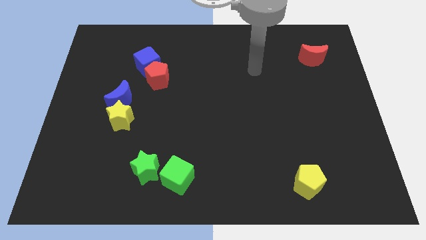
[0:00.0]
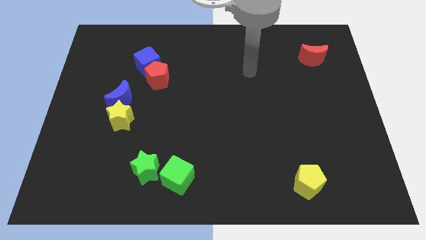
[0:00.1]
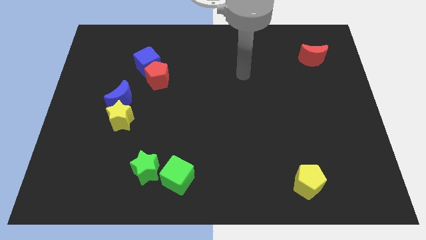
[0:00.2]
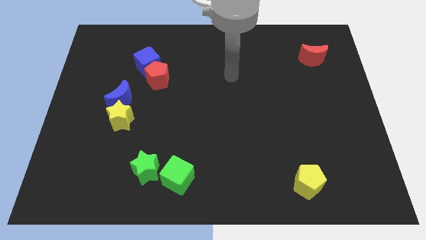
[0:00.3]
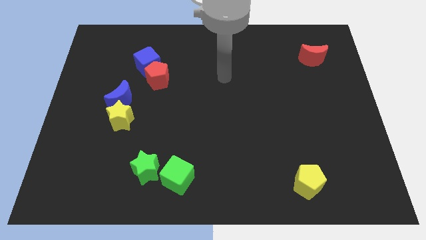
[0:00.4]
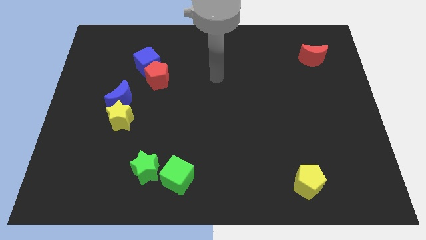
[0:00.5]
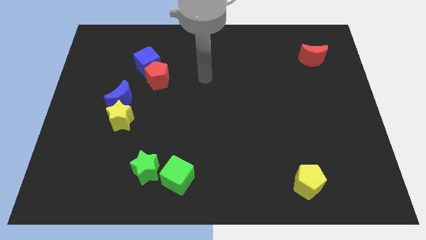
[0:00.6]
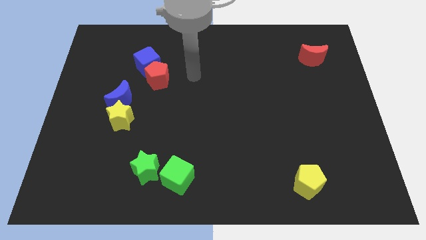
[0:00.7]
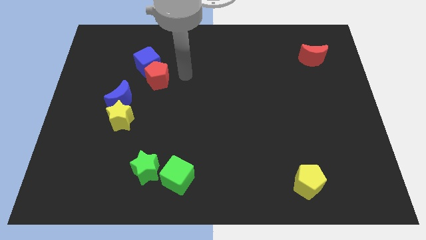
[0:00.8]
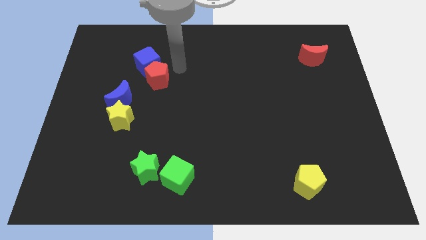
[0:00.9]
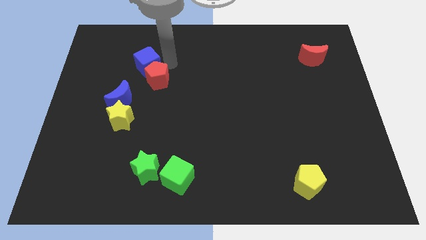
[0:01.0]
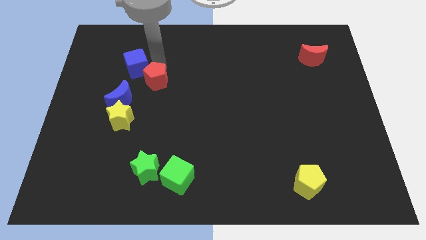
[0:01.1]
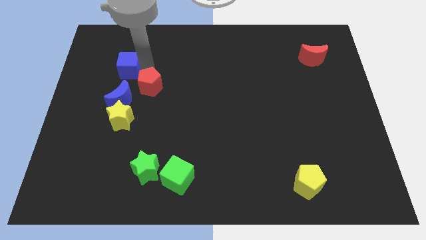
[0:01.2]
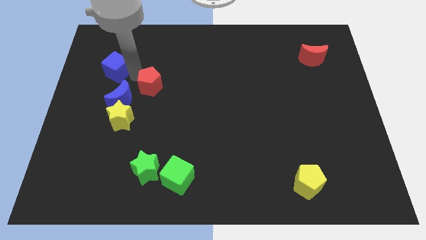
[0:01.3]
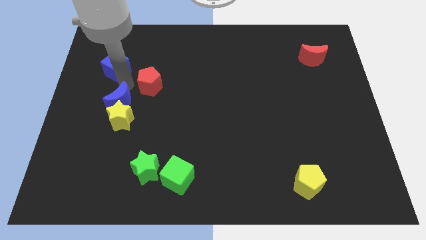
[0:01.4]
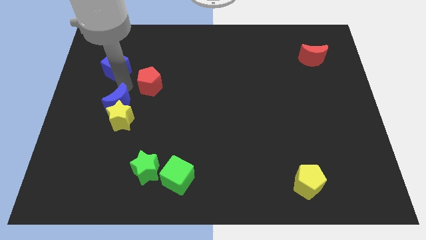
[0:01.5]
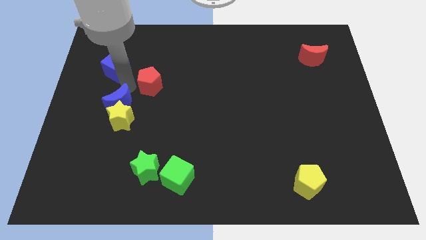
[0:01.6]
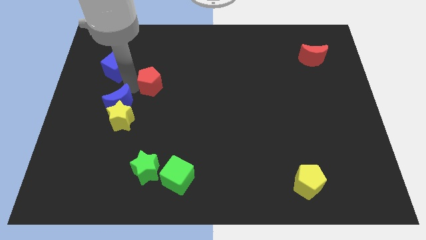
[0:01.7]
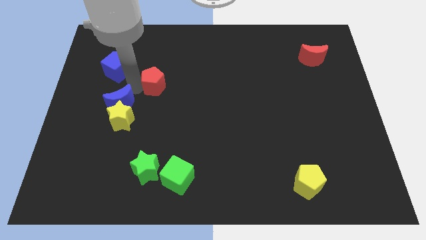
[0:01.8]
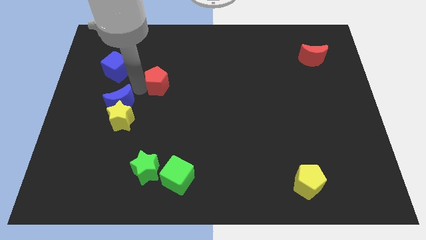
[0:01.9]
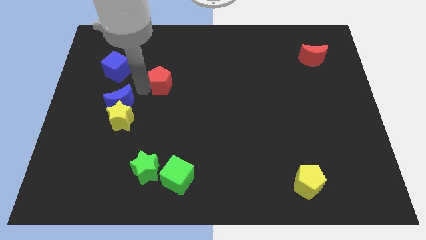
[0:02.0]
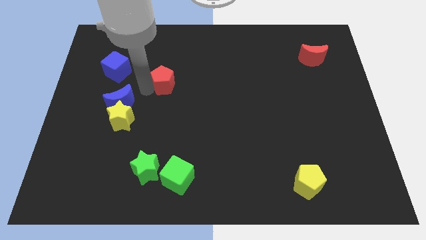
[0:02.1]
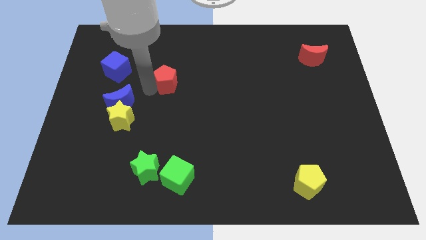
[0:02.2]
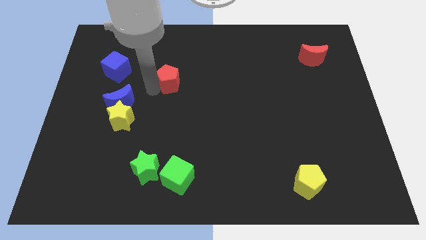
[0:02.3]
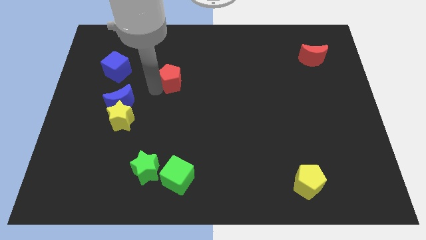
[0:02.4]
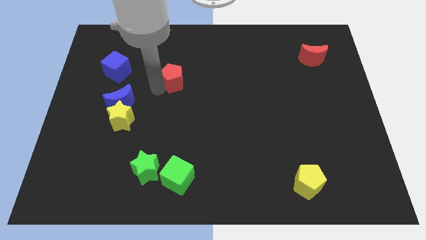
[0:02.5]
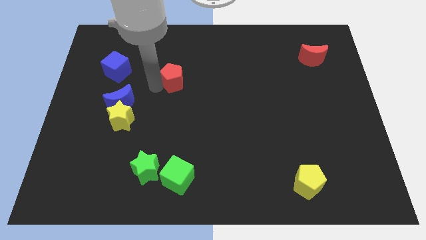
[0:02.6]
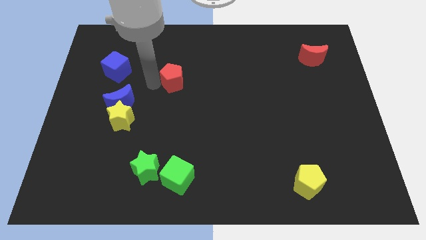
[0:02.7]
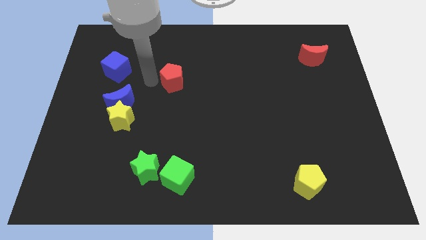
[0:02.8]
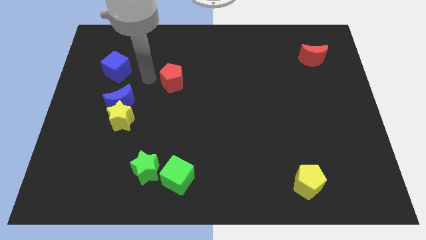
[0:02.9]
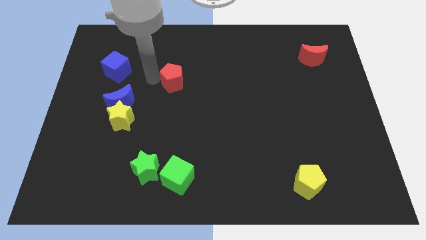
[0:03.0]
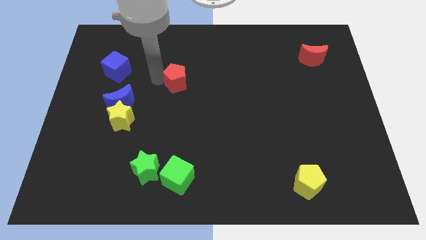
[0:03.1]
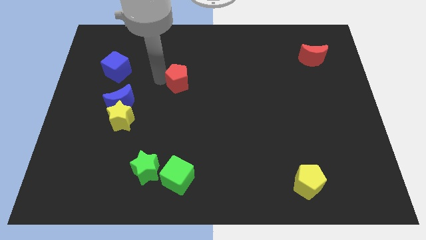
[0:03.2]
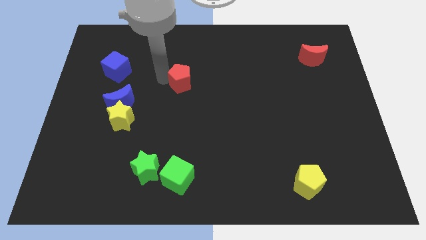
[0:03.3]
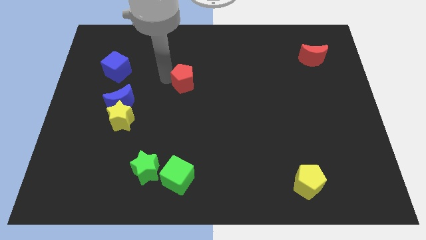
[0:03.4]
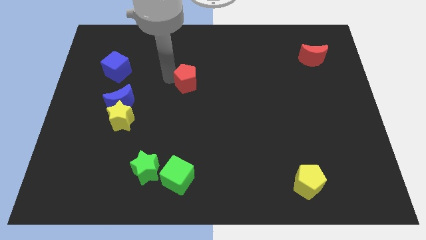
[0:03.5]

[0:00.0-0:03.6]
push the red pentagon to the right a little

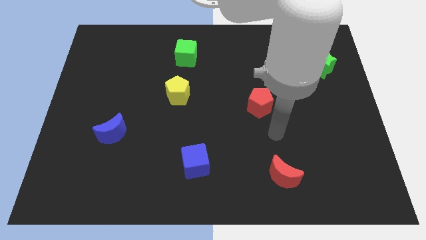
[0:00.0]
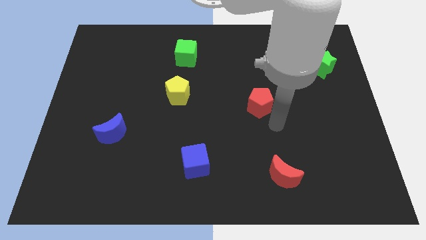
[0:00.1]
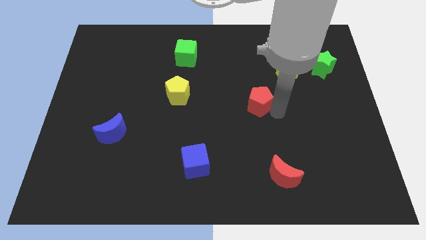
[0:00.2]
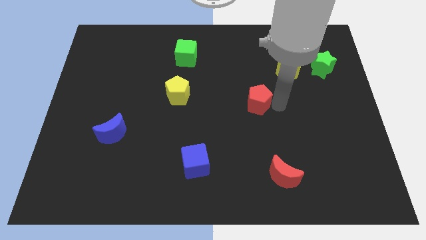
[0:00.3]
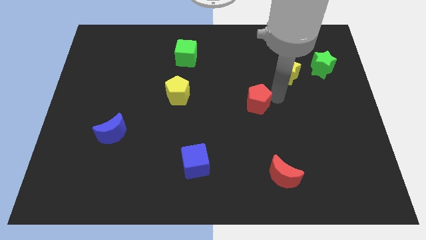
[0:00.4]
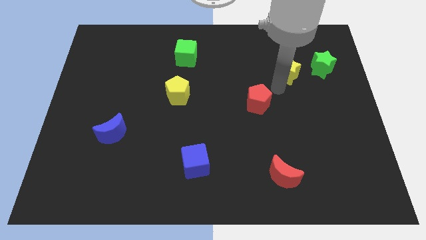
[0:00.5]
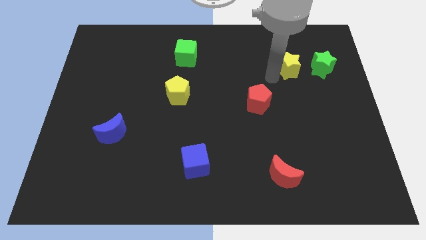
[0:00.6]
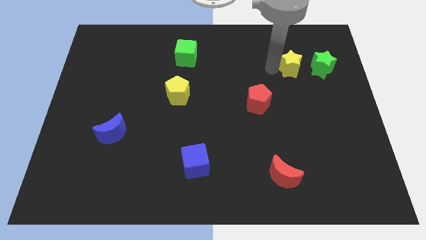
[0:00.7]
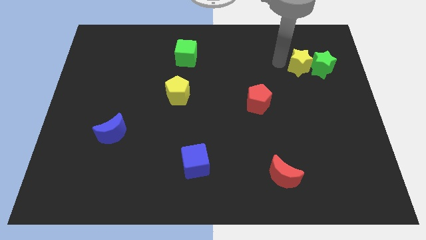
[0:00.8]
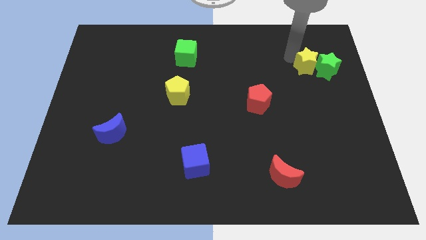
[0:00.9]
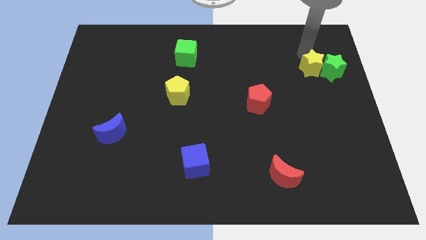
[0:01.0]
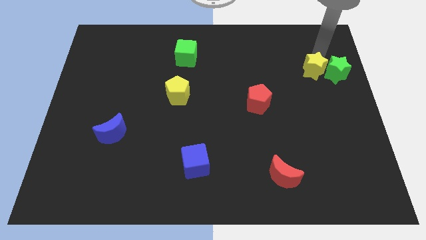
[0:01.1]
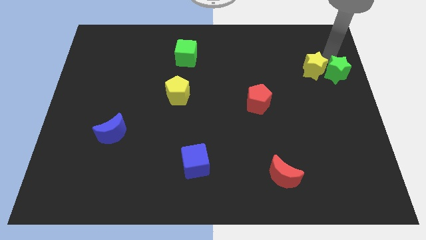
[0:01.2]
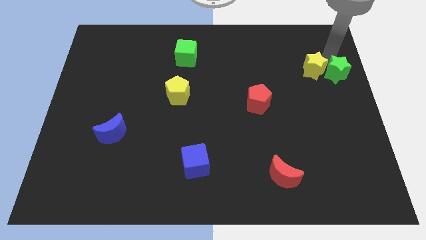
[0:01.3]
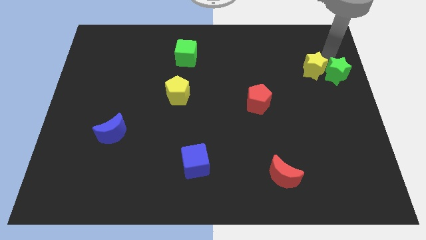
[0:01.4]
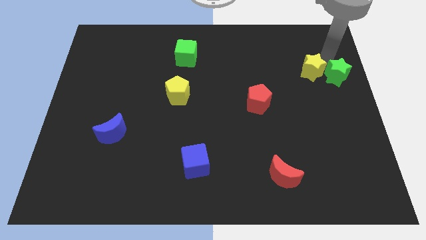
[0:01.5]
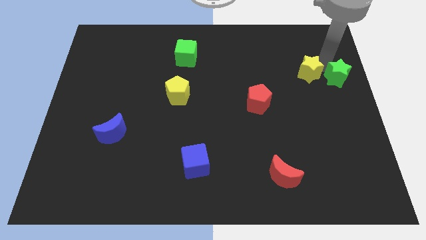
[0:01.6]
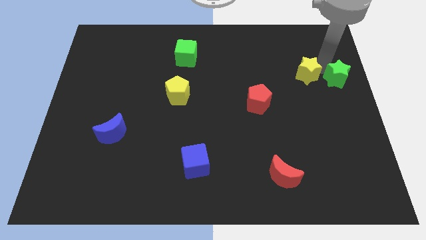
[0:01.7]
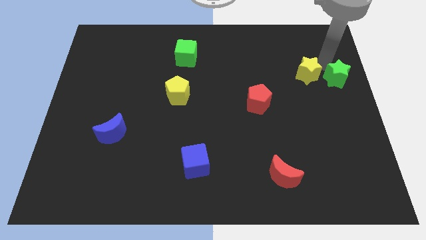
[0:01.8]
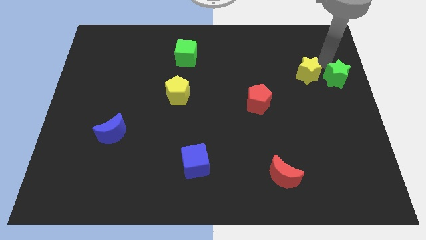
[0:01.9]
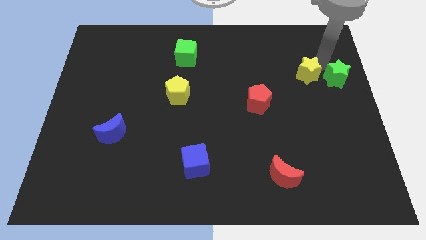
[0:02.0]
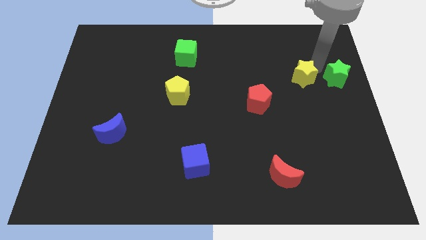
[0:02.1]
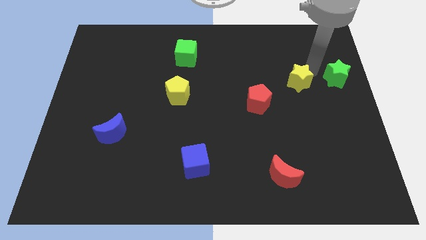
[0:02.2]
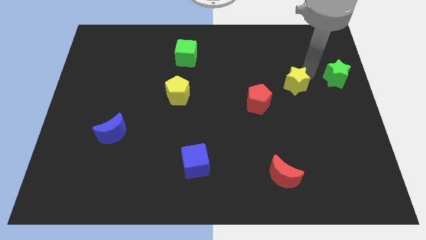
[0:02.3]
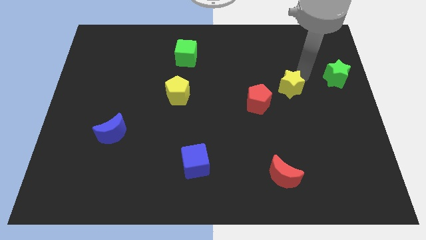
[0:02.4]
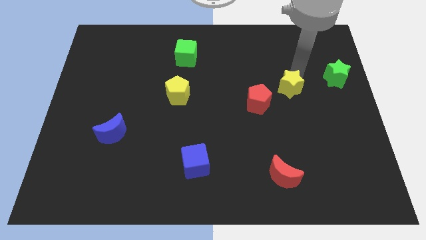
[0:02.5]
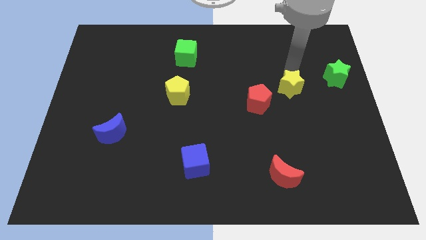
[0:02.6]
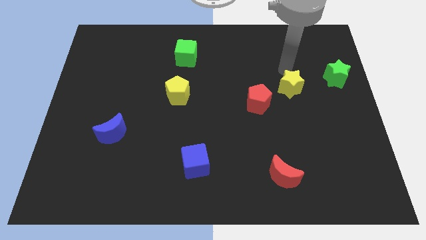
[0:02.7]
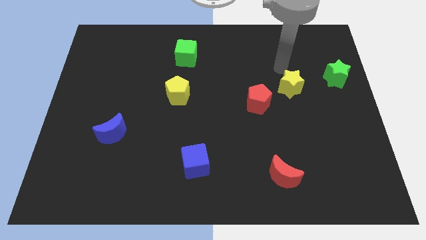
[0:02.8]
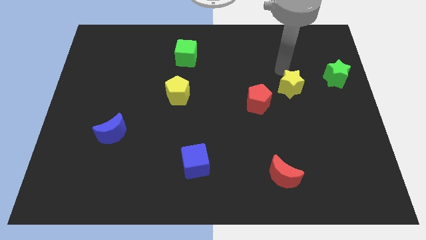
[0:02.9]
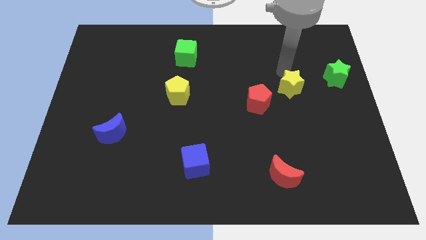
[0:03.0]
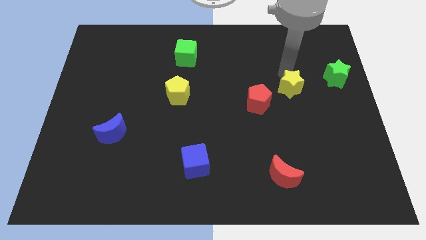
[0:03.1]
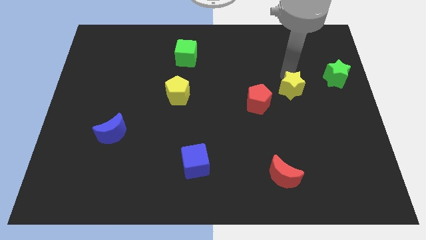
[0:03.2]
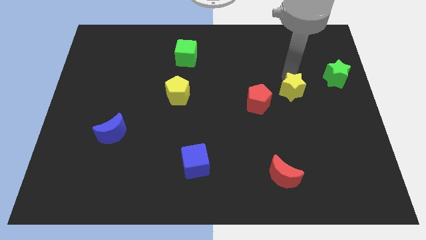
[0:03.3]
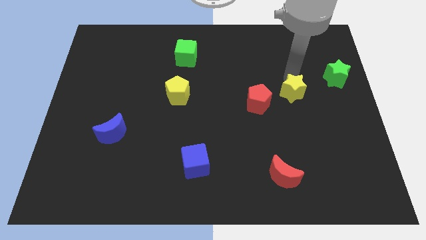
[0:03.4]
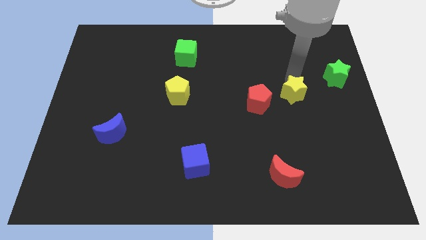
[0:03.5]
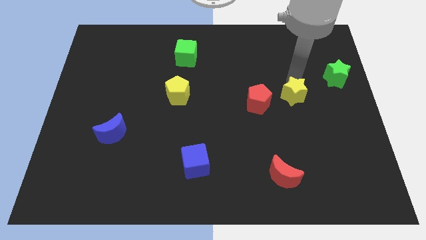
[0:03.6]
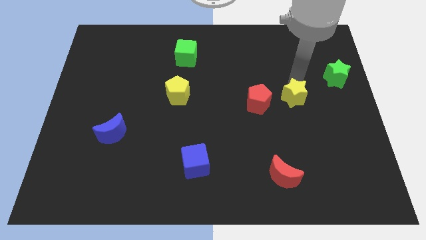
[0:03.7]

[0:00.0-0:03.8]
slightly move the yellow star downwards

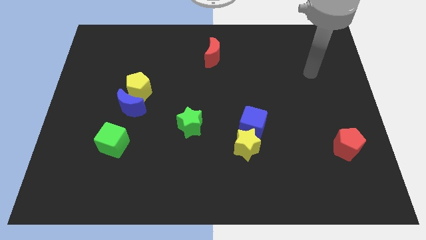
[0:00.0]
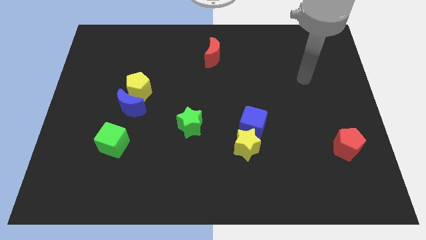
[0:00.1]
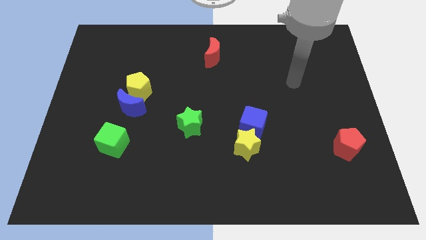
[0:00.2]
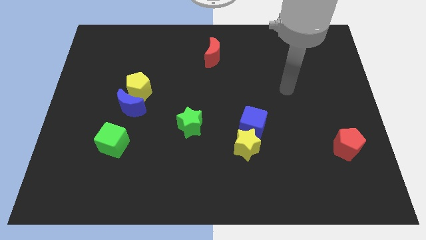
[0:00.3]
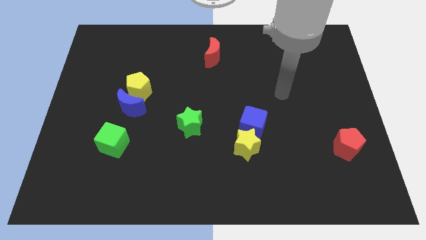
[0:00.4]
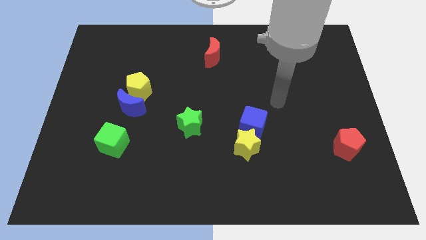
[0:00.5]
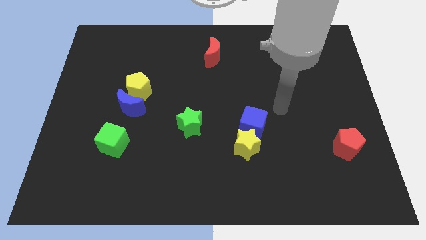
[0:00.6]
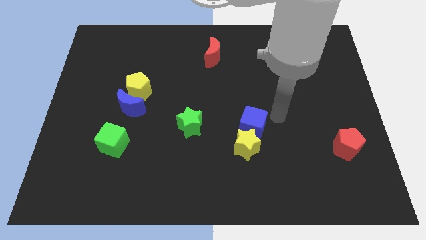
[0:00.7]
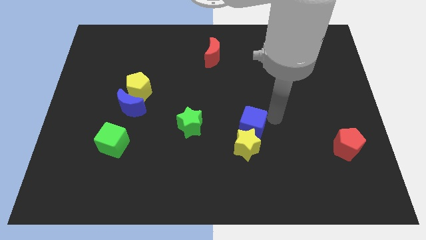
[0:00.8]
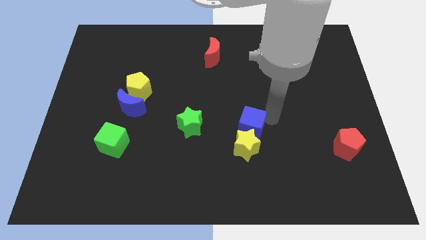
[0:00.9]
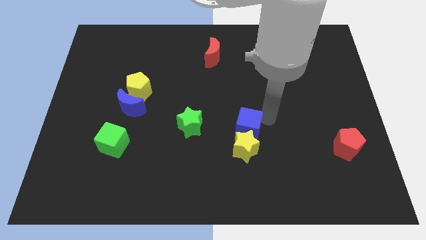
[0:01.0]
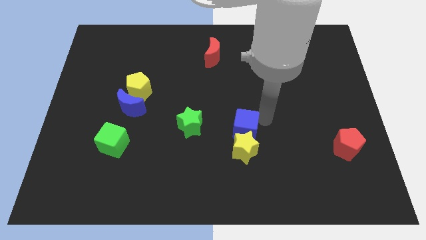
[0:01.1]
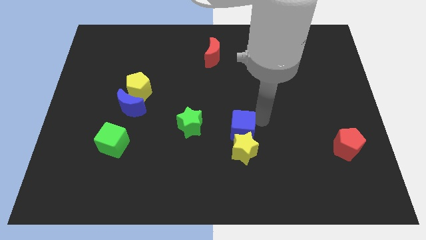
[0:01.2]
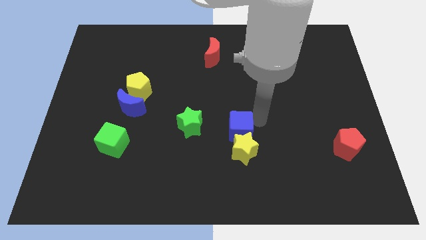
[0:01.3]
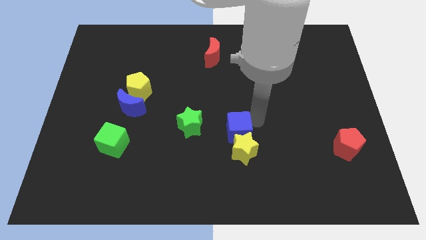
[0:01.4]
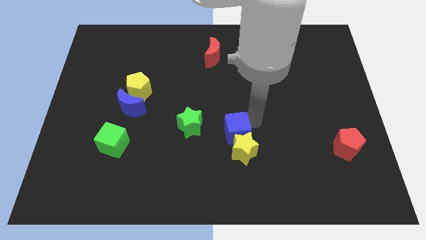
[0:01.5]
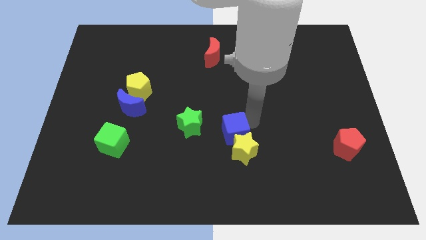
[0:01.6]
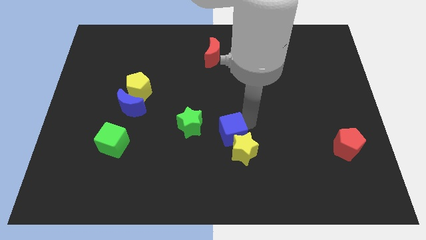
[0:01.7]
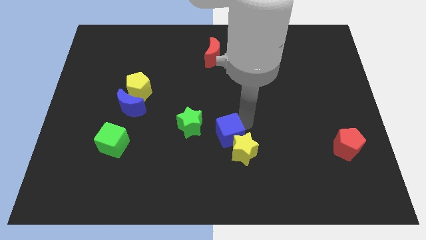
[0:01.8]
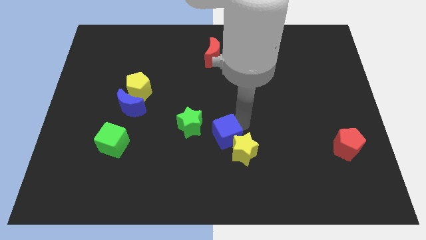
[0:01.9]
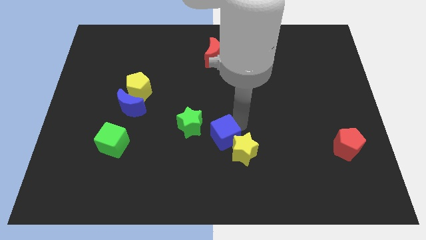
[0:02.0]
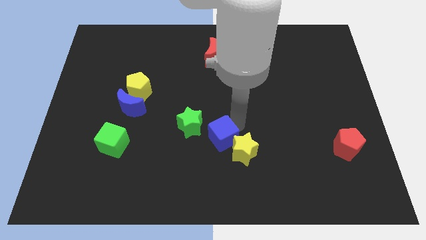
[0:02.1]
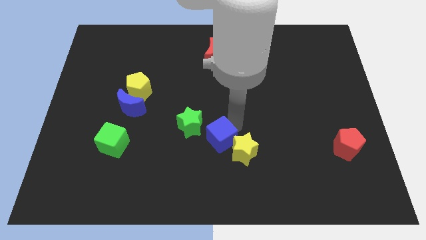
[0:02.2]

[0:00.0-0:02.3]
slide the blue cube a little down and left
